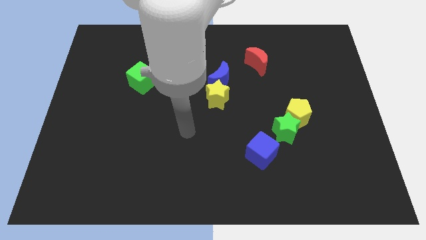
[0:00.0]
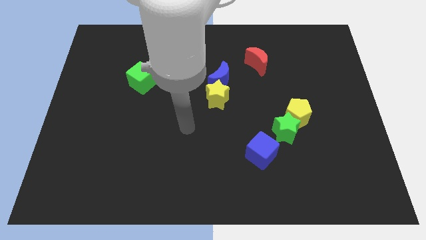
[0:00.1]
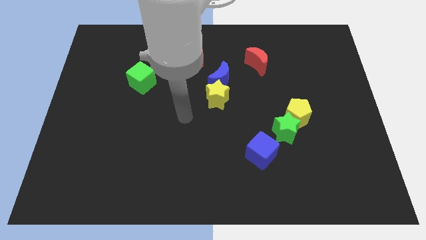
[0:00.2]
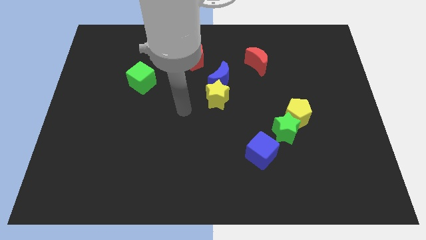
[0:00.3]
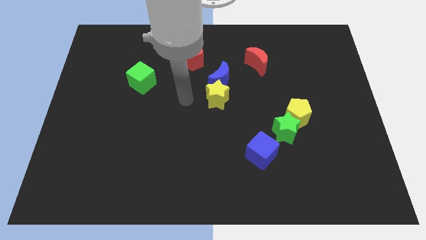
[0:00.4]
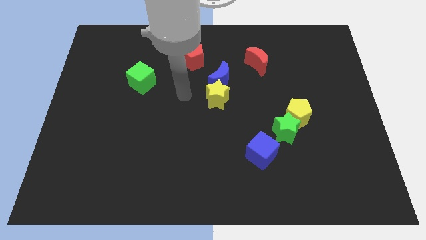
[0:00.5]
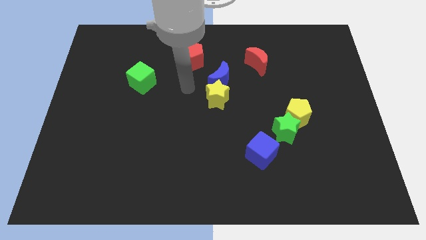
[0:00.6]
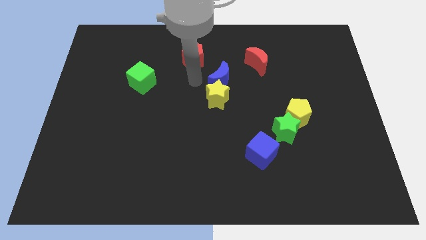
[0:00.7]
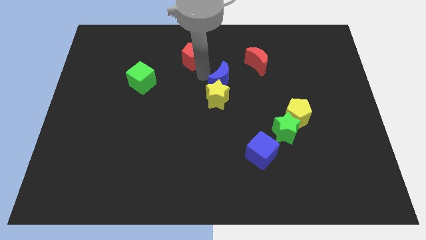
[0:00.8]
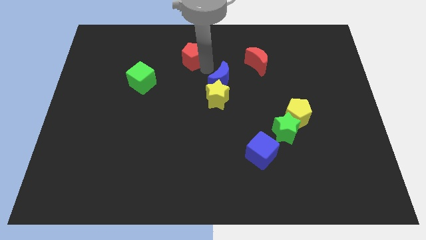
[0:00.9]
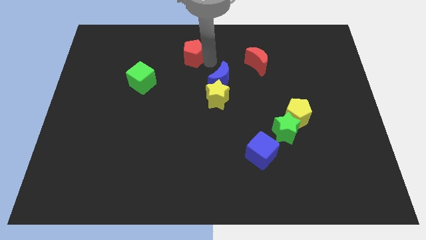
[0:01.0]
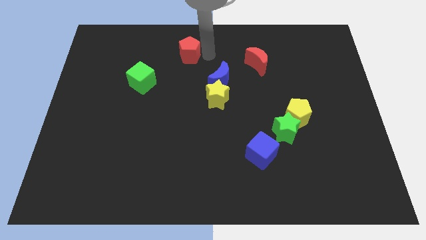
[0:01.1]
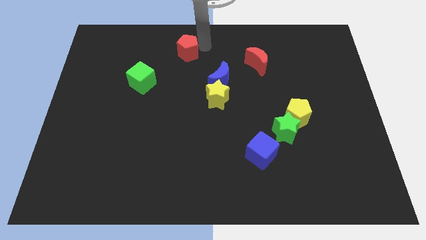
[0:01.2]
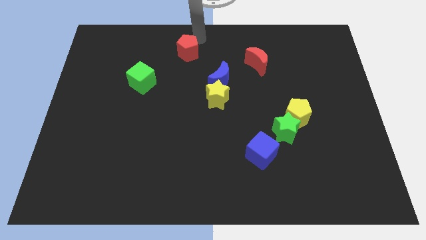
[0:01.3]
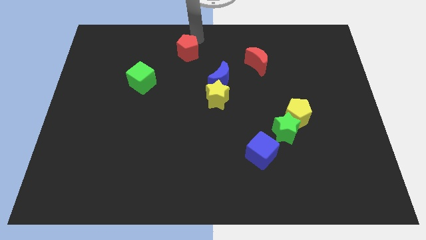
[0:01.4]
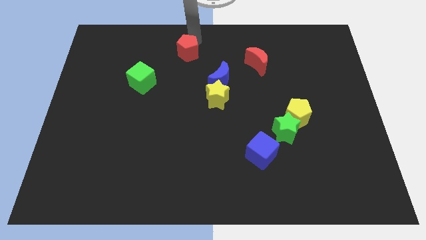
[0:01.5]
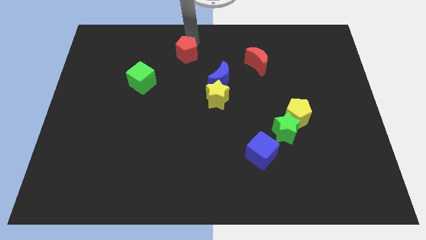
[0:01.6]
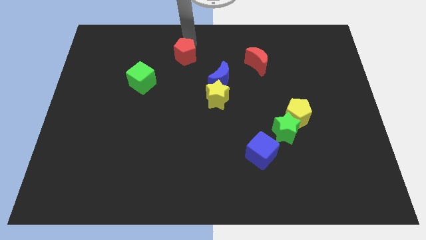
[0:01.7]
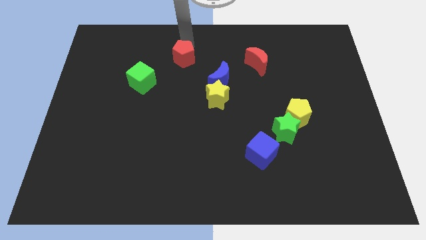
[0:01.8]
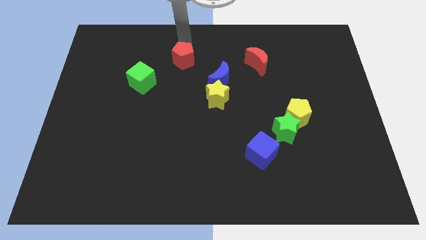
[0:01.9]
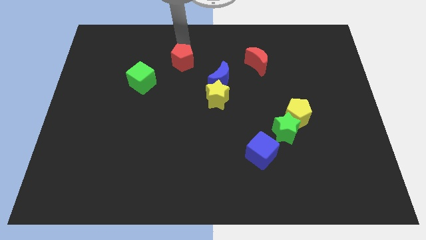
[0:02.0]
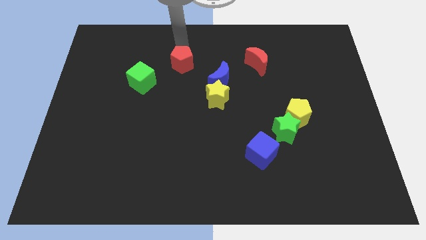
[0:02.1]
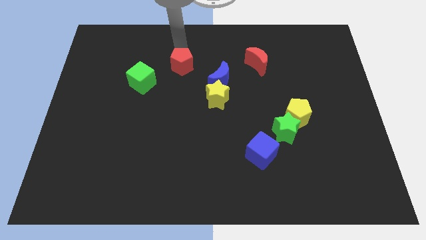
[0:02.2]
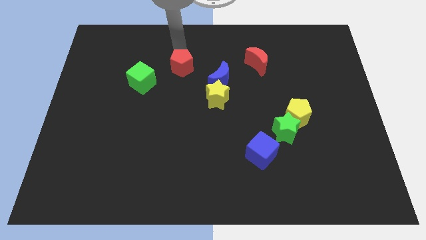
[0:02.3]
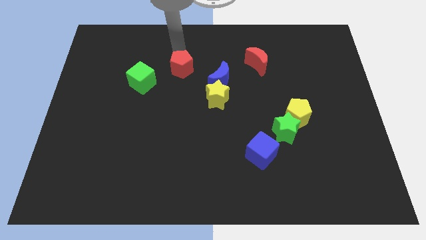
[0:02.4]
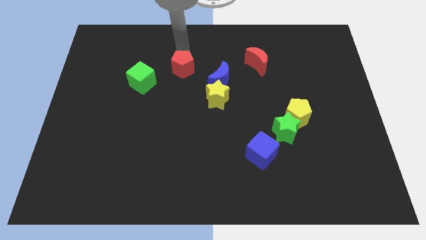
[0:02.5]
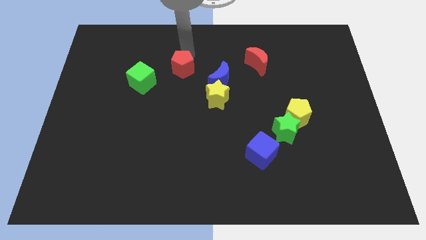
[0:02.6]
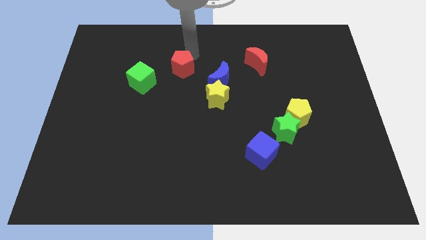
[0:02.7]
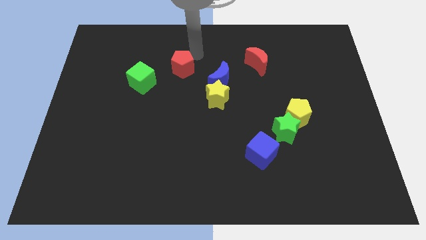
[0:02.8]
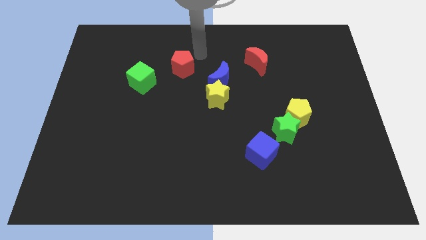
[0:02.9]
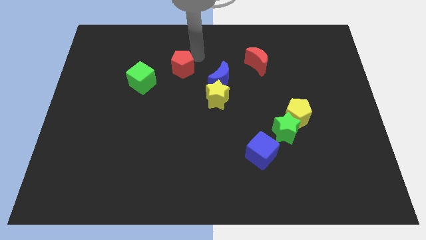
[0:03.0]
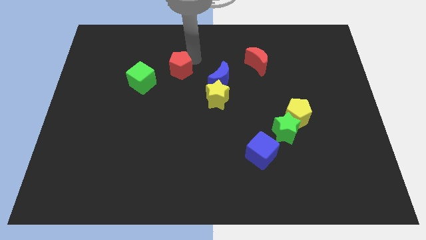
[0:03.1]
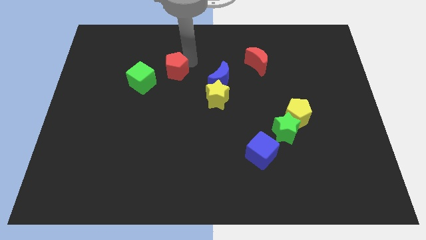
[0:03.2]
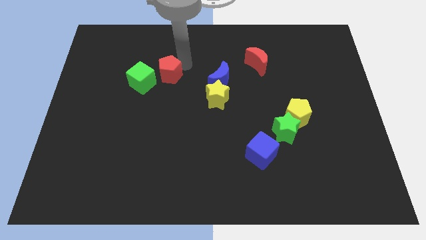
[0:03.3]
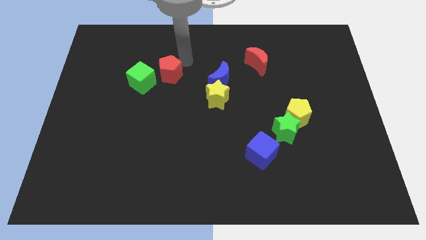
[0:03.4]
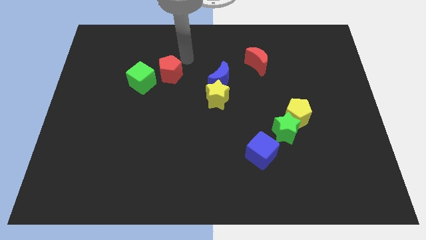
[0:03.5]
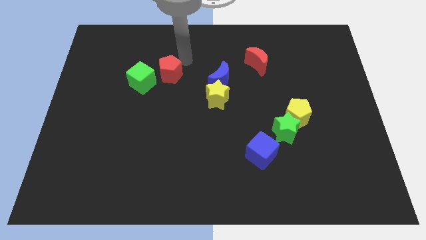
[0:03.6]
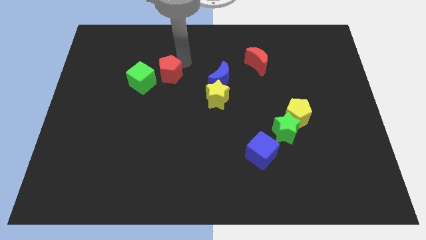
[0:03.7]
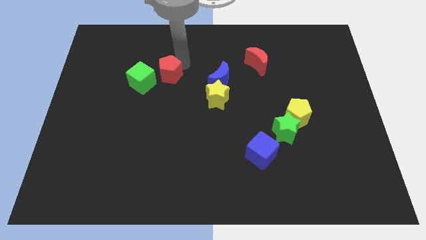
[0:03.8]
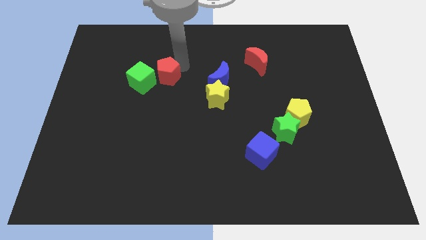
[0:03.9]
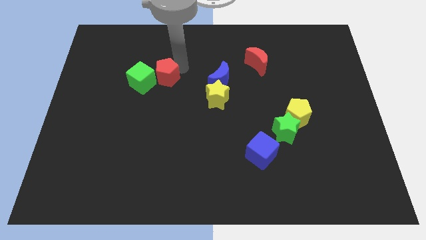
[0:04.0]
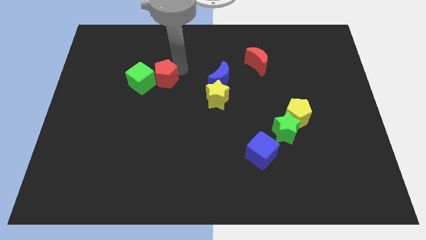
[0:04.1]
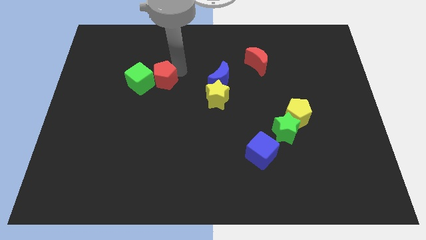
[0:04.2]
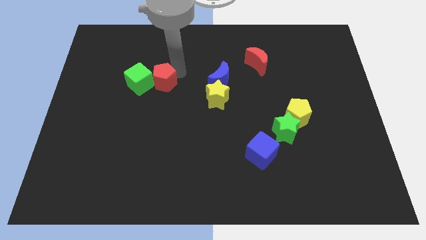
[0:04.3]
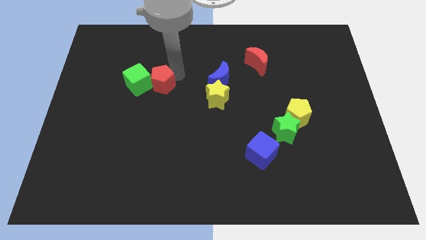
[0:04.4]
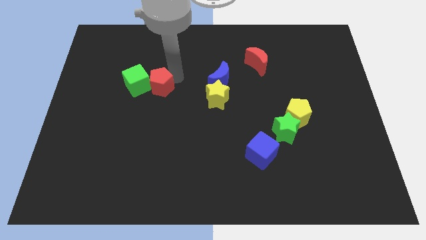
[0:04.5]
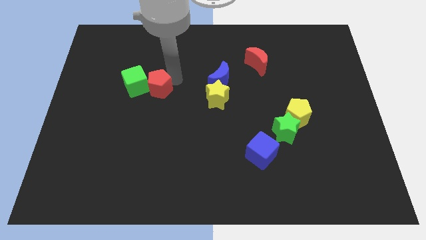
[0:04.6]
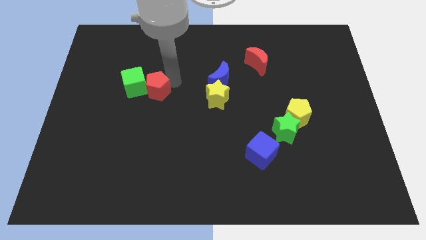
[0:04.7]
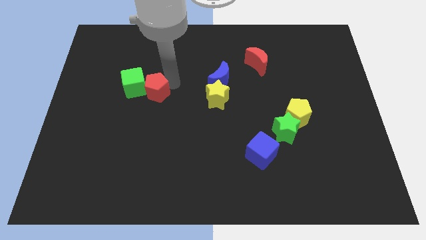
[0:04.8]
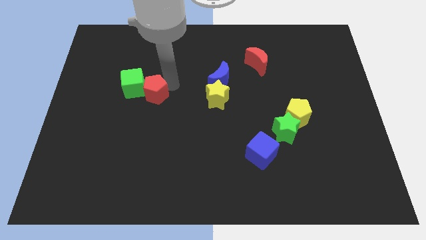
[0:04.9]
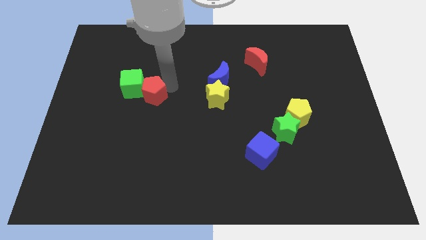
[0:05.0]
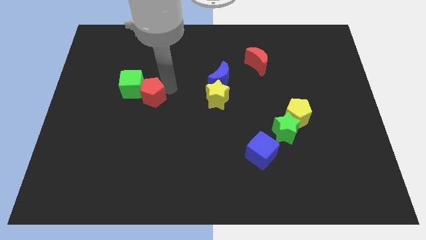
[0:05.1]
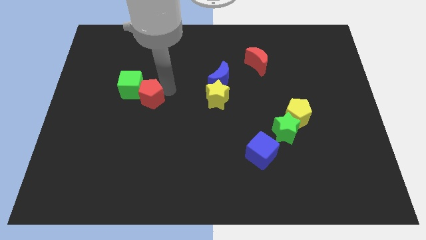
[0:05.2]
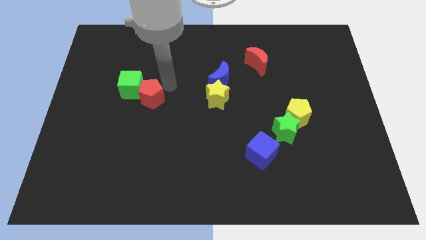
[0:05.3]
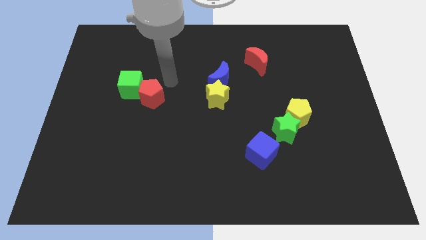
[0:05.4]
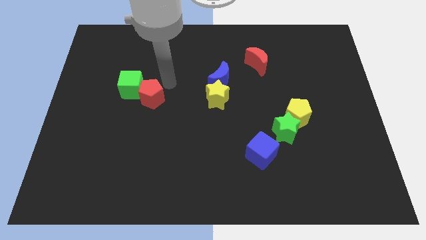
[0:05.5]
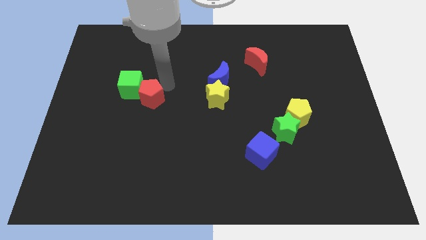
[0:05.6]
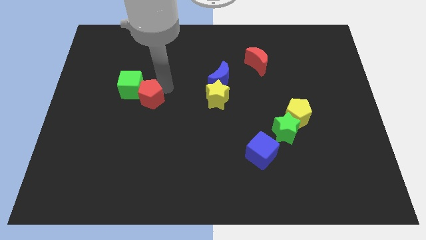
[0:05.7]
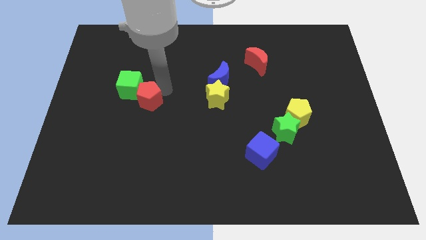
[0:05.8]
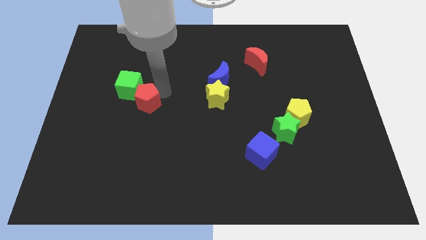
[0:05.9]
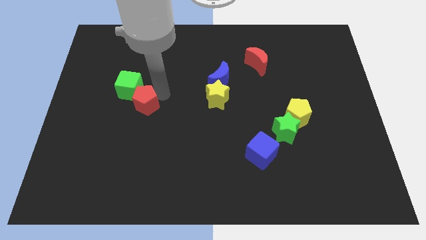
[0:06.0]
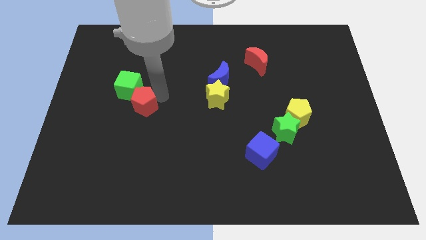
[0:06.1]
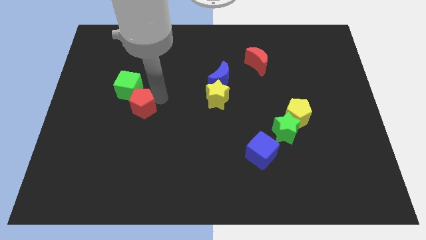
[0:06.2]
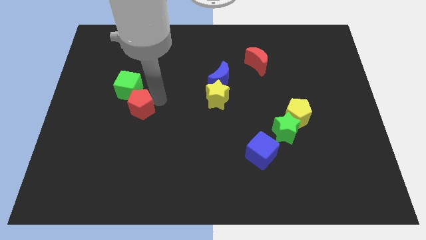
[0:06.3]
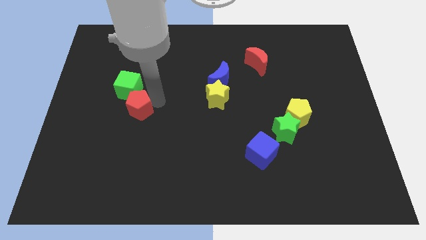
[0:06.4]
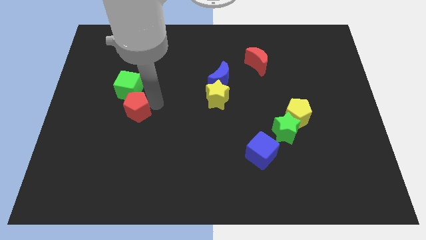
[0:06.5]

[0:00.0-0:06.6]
move the red pentagon downwards and to the left diagonally

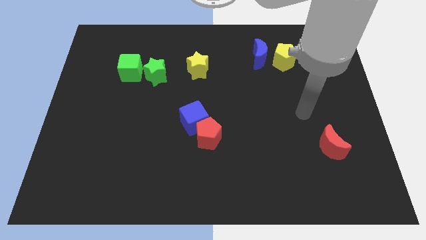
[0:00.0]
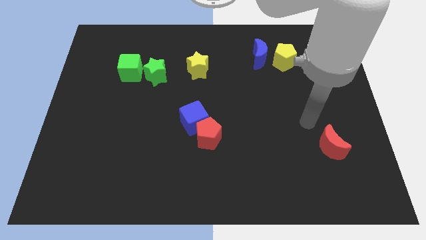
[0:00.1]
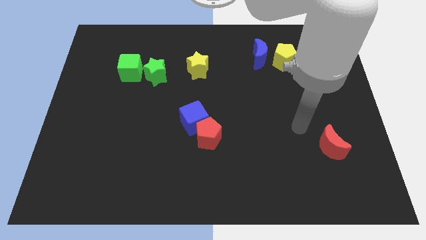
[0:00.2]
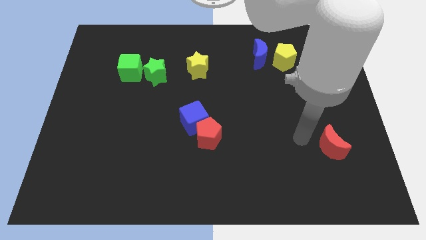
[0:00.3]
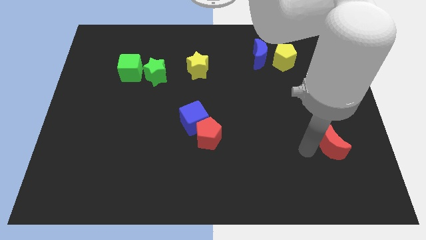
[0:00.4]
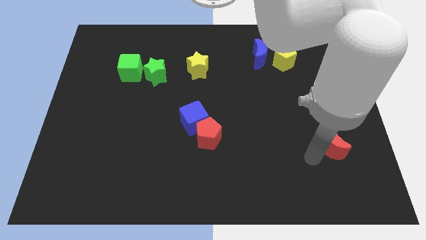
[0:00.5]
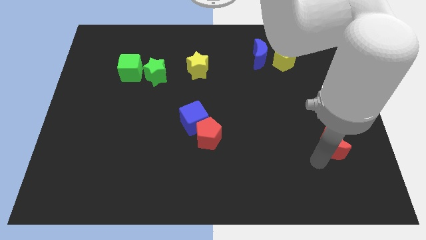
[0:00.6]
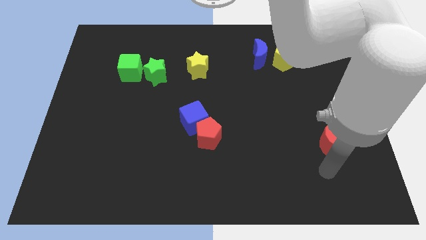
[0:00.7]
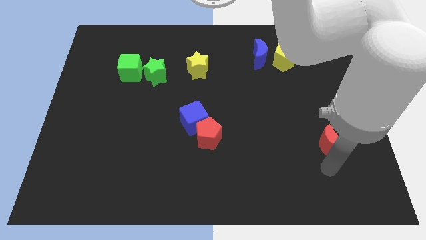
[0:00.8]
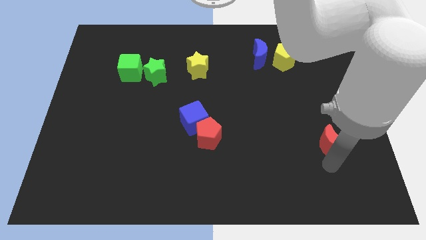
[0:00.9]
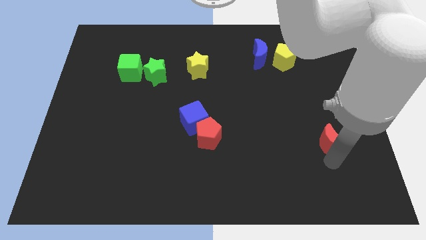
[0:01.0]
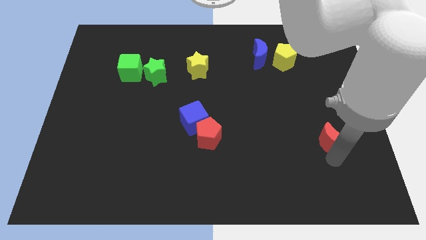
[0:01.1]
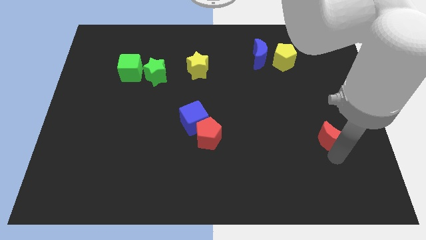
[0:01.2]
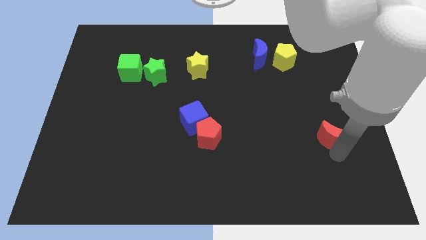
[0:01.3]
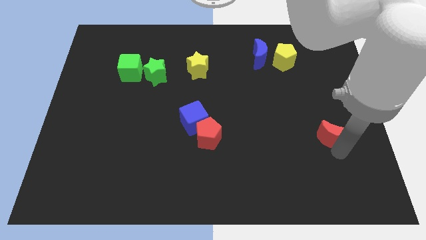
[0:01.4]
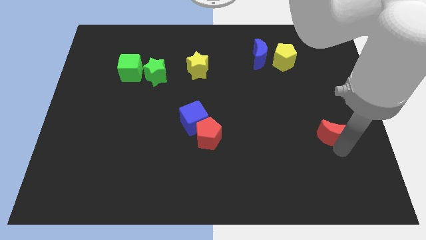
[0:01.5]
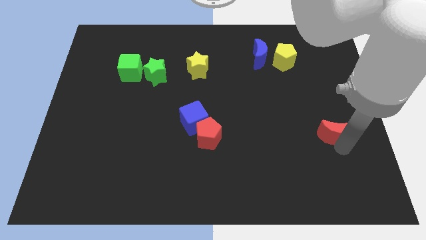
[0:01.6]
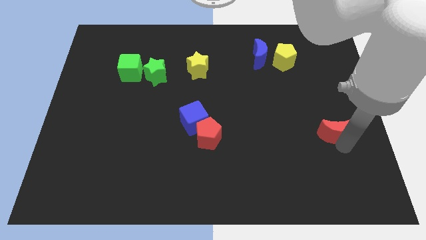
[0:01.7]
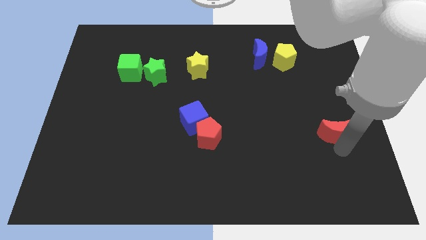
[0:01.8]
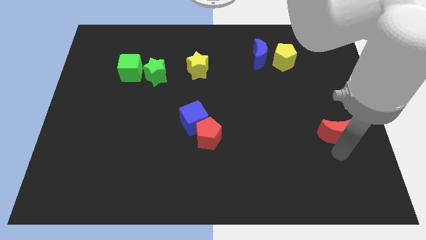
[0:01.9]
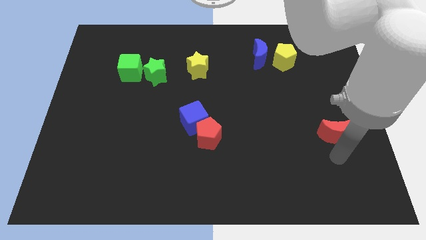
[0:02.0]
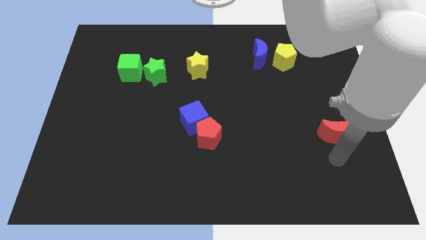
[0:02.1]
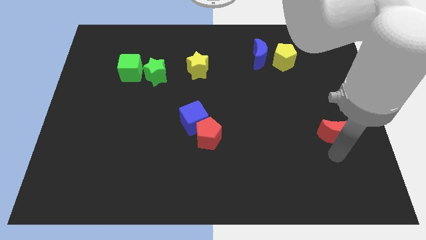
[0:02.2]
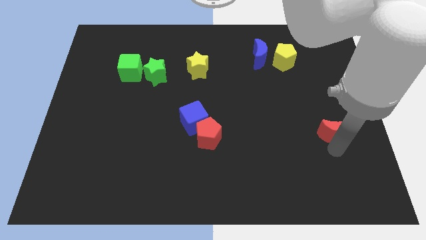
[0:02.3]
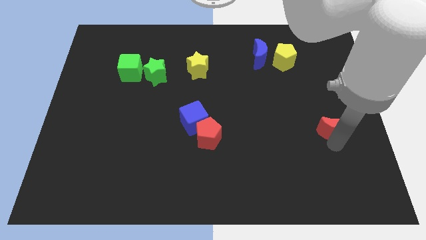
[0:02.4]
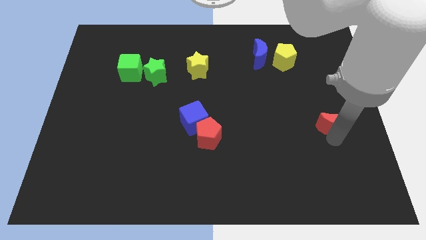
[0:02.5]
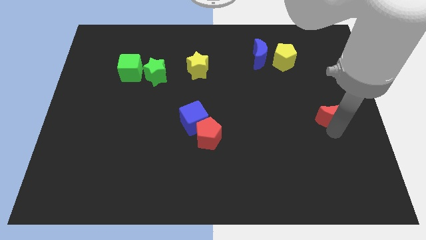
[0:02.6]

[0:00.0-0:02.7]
move the red moon upwards slightly
